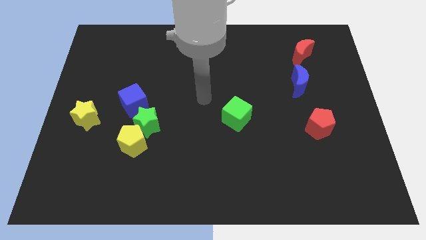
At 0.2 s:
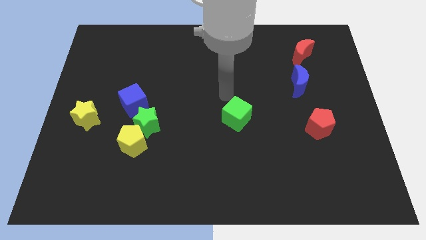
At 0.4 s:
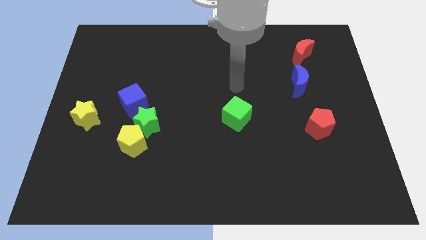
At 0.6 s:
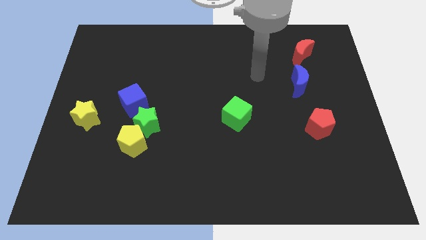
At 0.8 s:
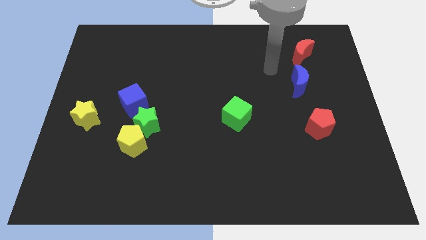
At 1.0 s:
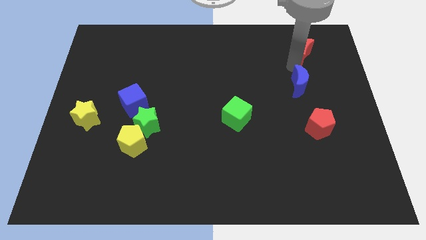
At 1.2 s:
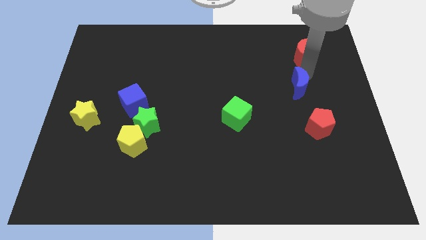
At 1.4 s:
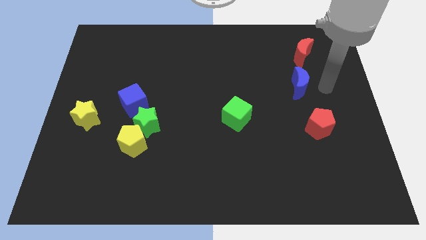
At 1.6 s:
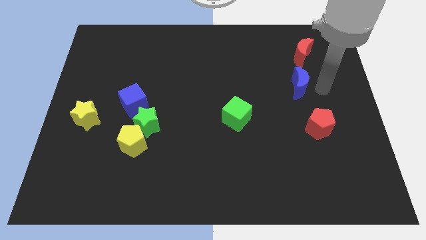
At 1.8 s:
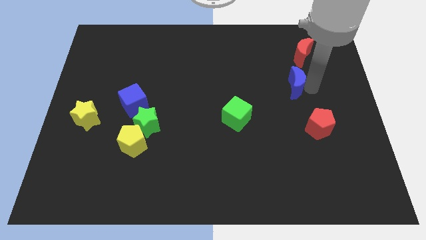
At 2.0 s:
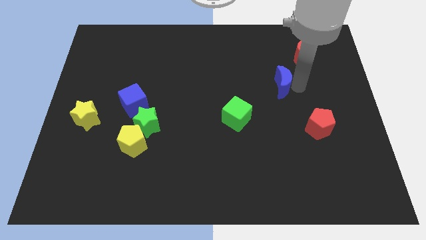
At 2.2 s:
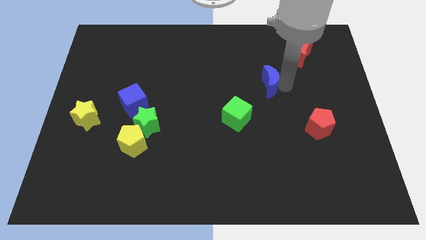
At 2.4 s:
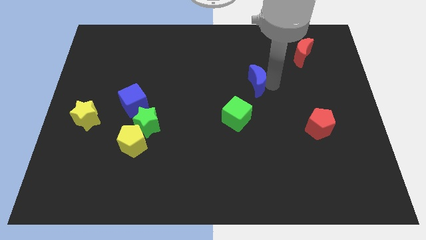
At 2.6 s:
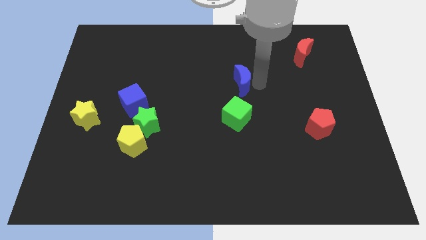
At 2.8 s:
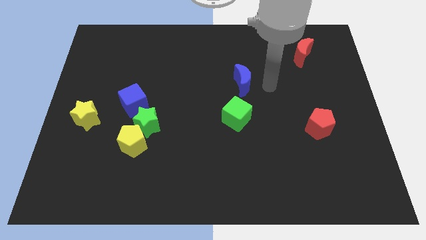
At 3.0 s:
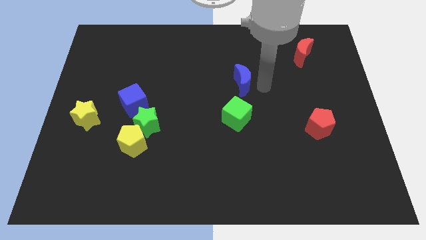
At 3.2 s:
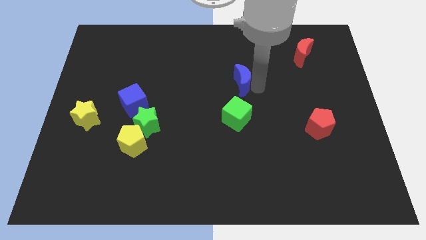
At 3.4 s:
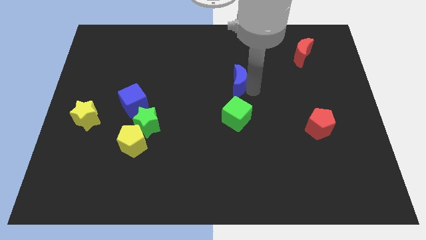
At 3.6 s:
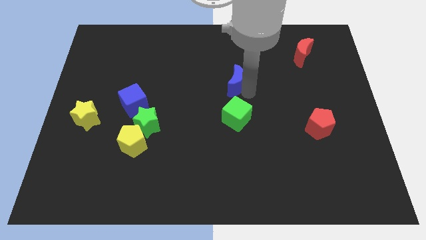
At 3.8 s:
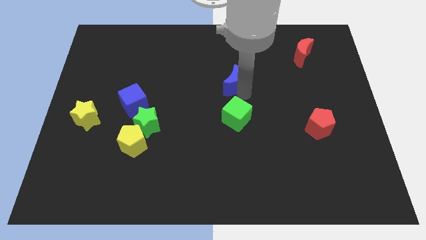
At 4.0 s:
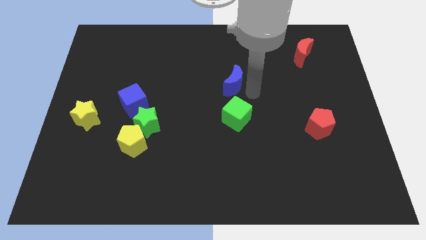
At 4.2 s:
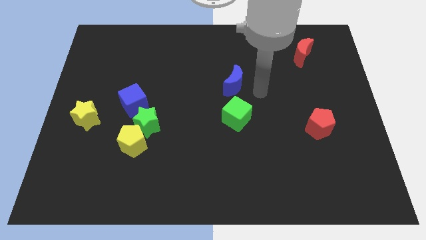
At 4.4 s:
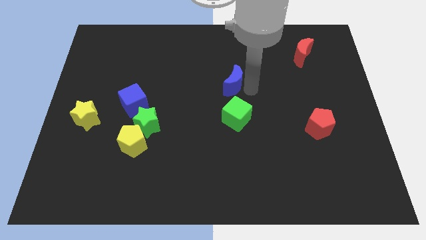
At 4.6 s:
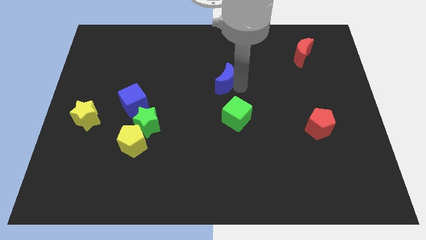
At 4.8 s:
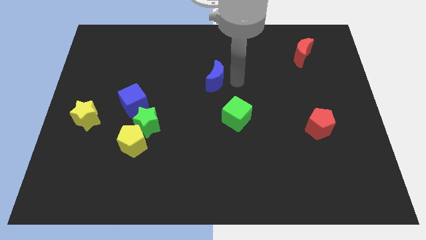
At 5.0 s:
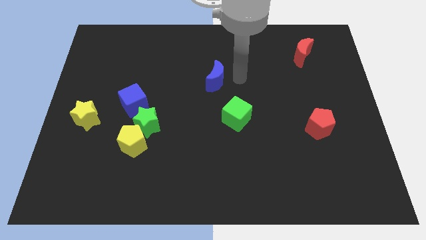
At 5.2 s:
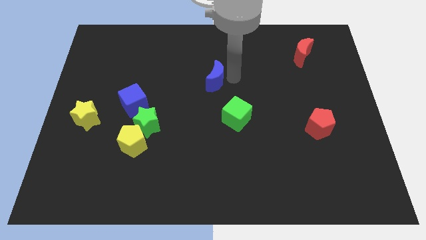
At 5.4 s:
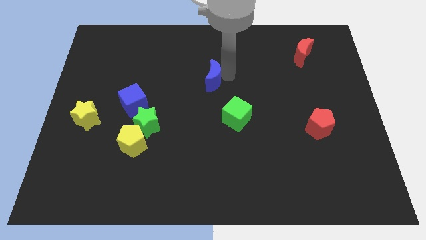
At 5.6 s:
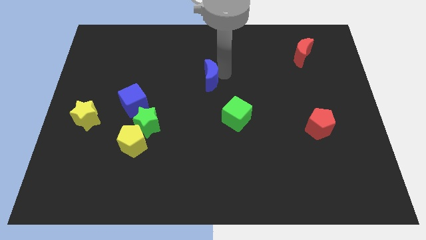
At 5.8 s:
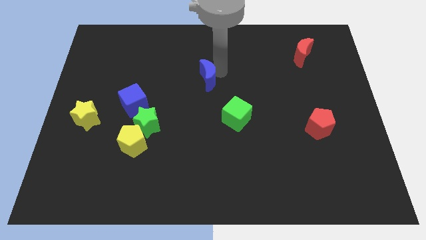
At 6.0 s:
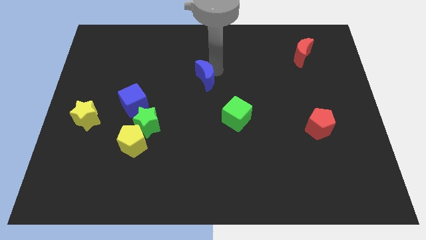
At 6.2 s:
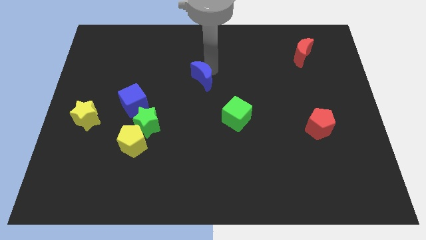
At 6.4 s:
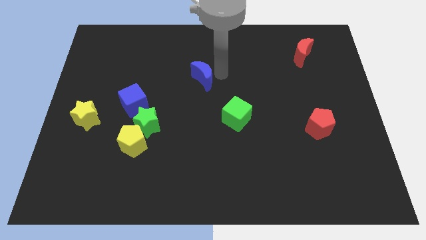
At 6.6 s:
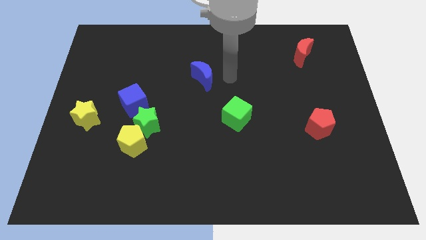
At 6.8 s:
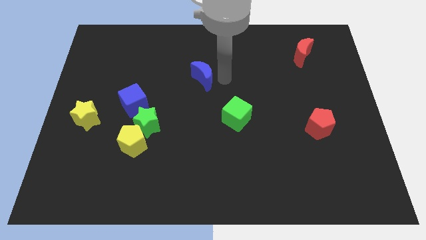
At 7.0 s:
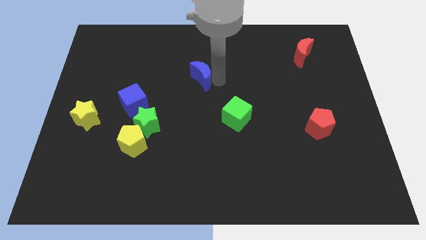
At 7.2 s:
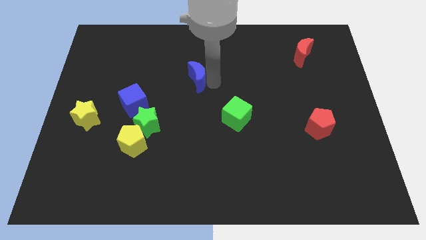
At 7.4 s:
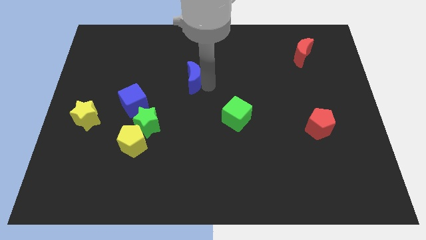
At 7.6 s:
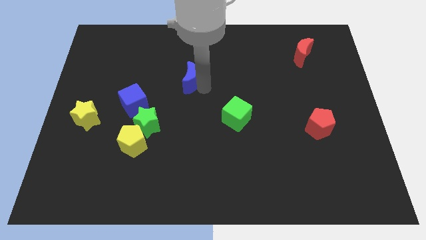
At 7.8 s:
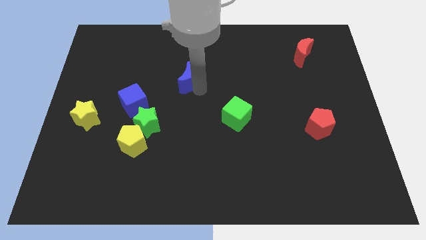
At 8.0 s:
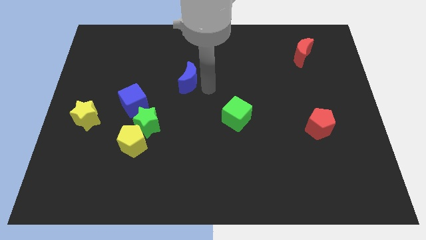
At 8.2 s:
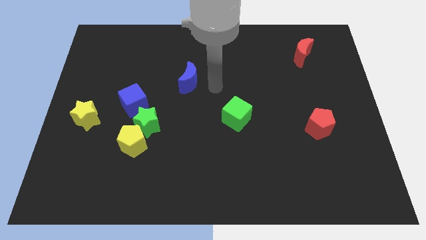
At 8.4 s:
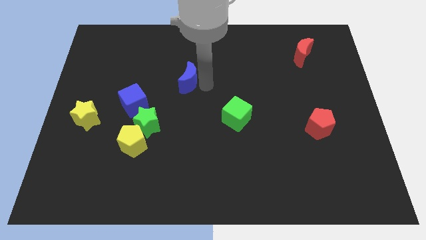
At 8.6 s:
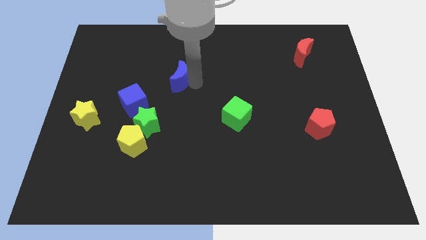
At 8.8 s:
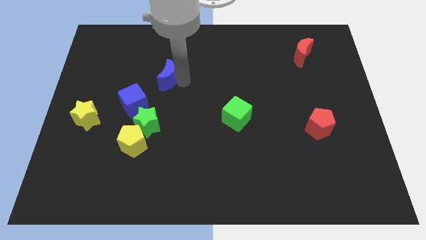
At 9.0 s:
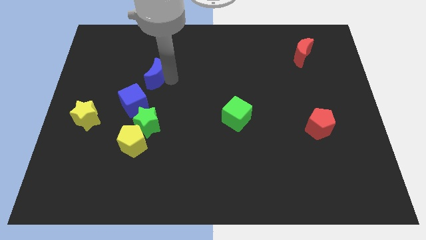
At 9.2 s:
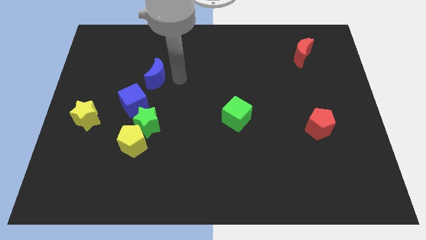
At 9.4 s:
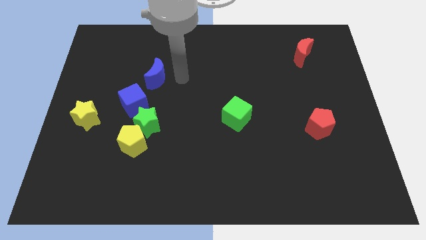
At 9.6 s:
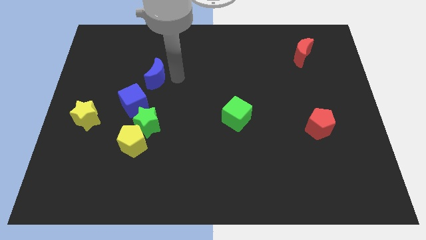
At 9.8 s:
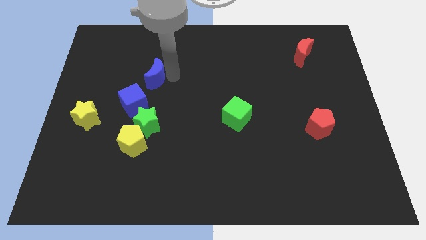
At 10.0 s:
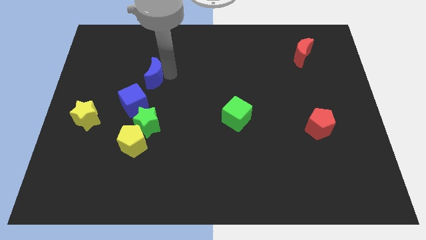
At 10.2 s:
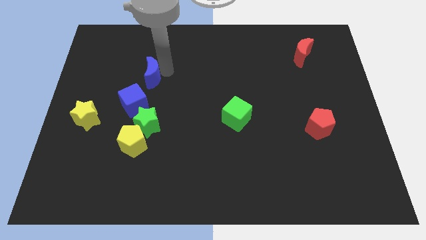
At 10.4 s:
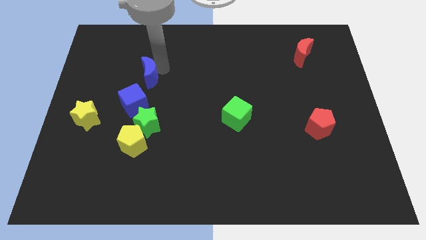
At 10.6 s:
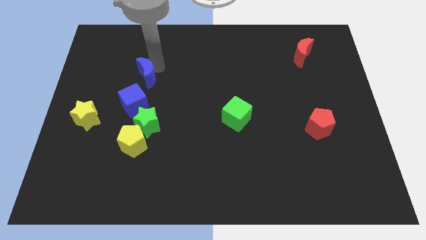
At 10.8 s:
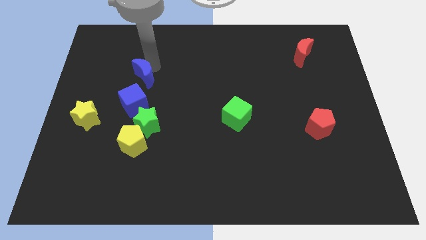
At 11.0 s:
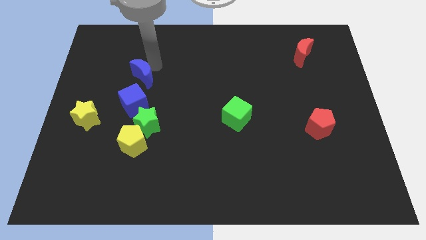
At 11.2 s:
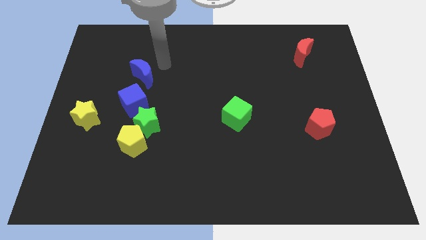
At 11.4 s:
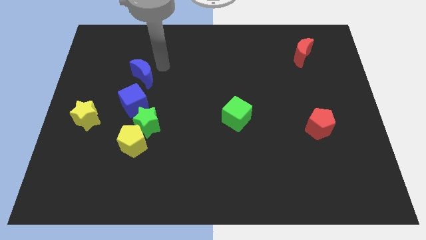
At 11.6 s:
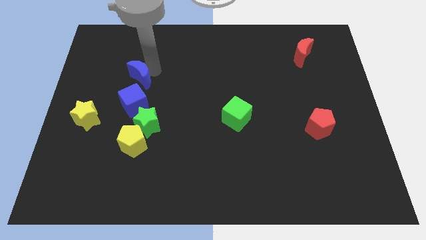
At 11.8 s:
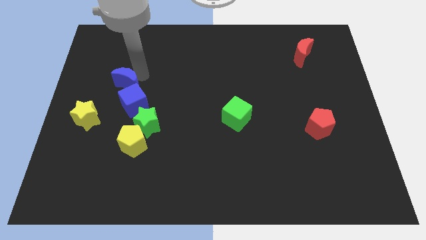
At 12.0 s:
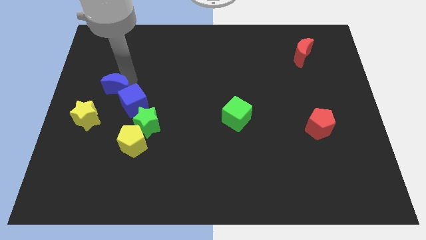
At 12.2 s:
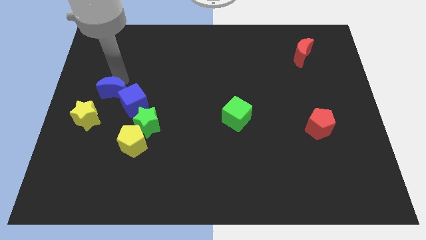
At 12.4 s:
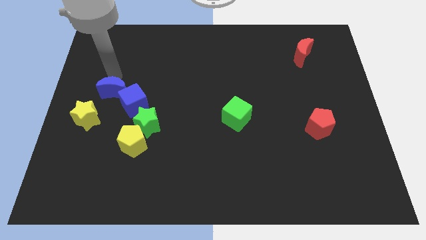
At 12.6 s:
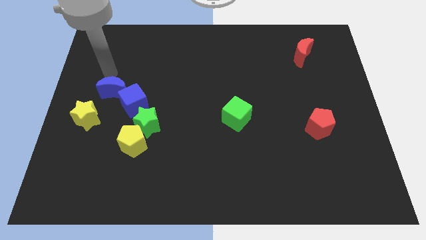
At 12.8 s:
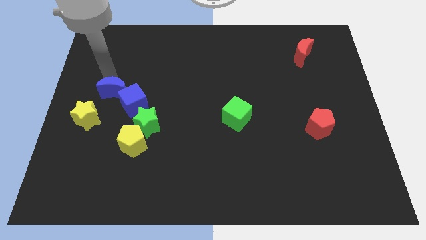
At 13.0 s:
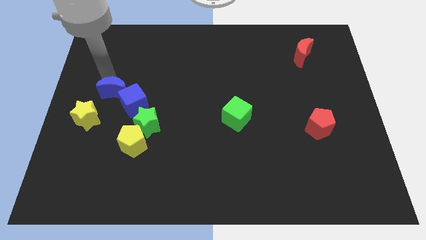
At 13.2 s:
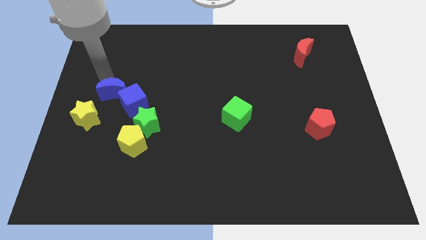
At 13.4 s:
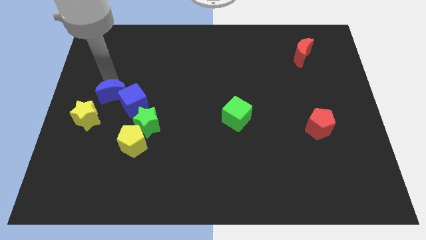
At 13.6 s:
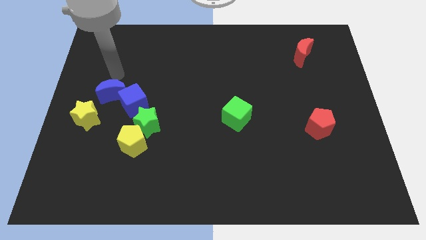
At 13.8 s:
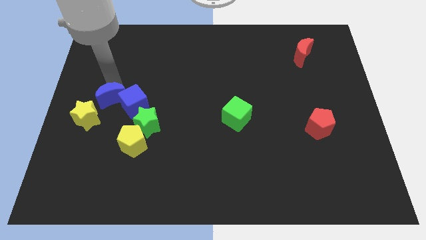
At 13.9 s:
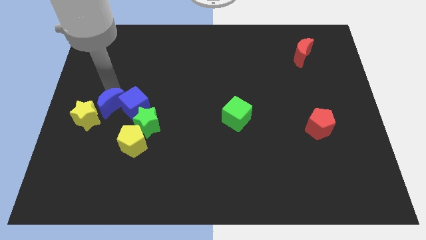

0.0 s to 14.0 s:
slide the blue moon to the bottom left of the blue cube

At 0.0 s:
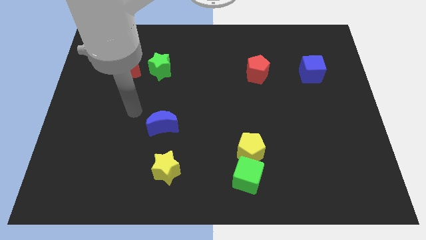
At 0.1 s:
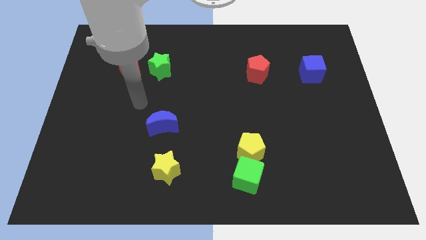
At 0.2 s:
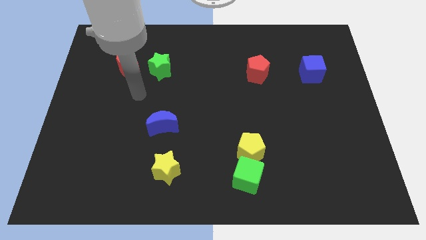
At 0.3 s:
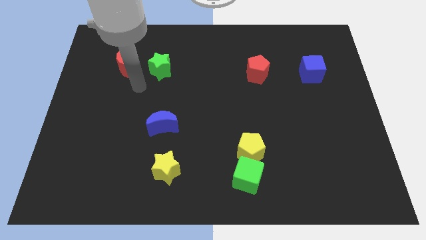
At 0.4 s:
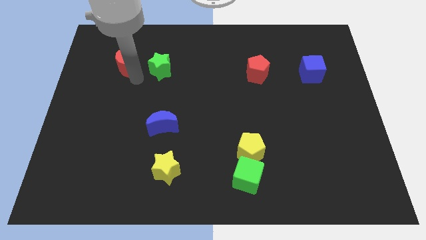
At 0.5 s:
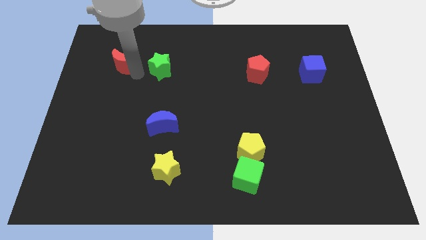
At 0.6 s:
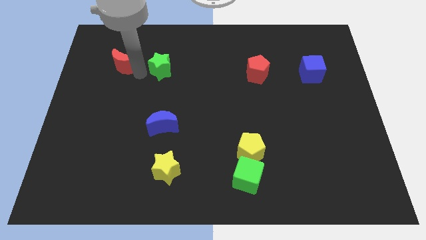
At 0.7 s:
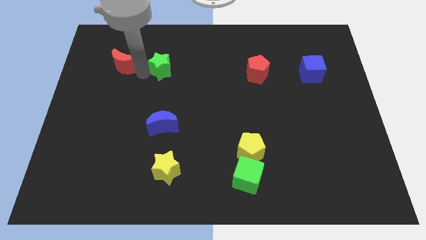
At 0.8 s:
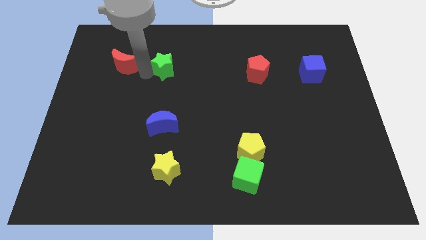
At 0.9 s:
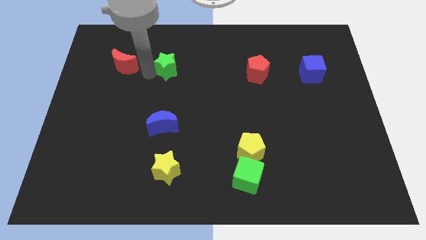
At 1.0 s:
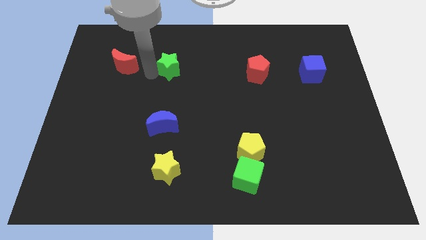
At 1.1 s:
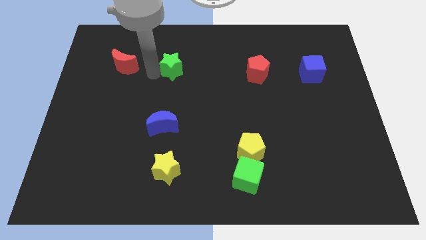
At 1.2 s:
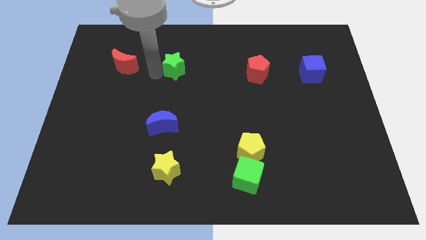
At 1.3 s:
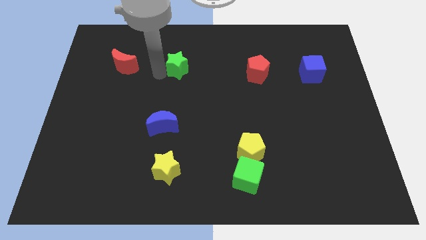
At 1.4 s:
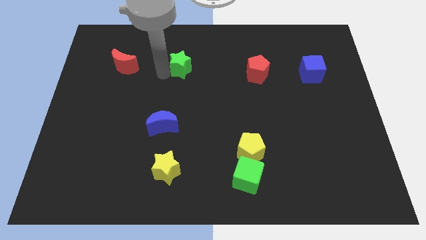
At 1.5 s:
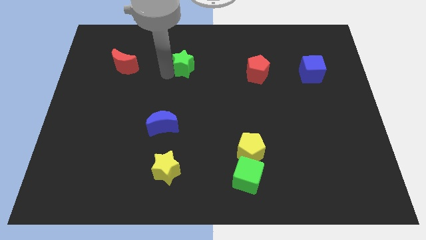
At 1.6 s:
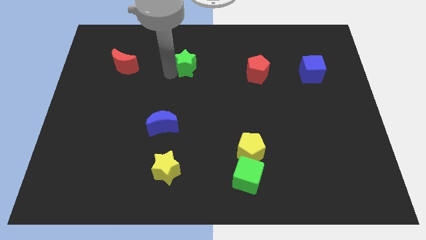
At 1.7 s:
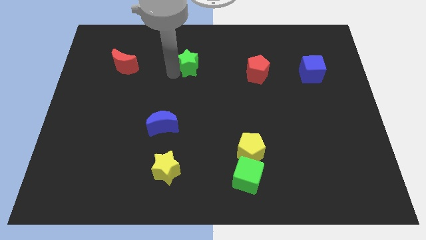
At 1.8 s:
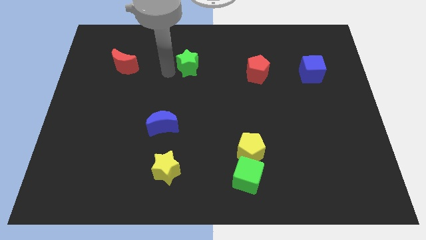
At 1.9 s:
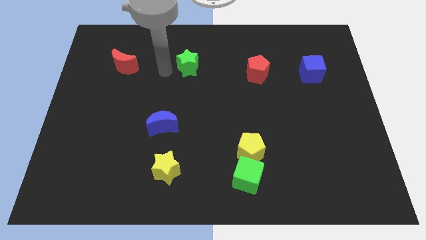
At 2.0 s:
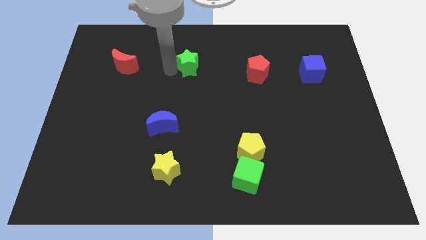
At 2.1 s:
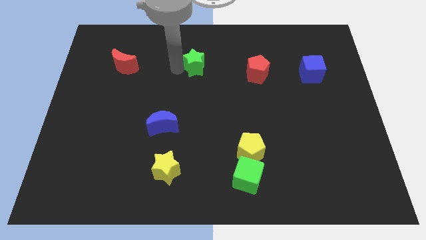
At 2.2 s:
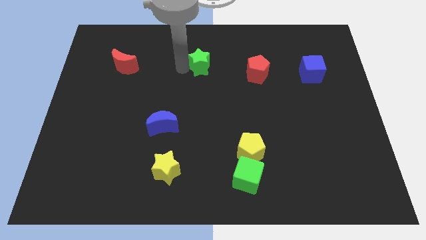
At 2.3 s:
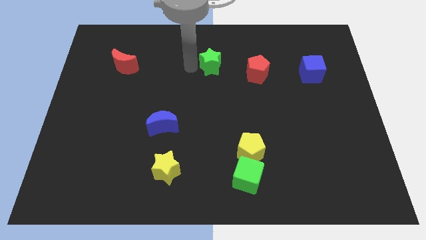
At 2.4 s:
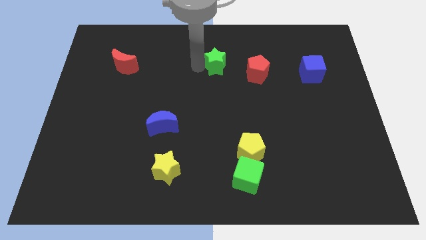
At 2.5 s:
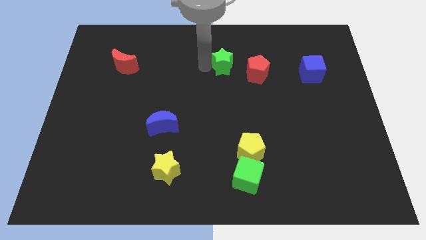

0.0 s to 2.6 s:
move the green star to the top left of the red pentagon
